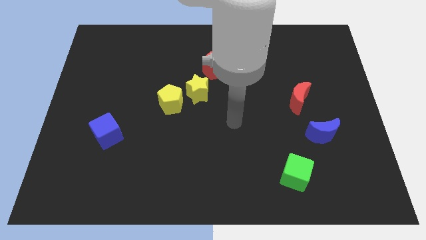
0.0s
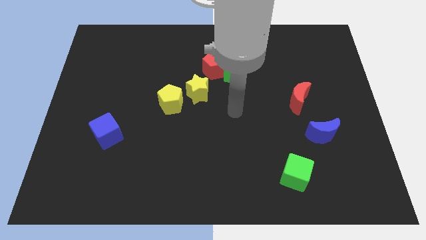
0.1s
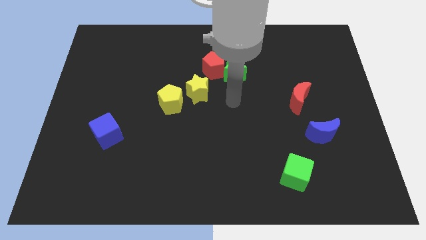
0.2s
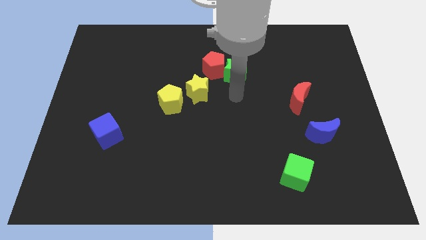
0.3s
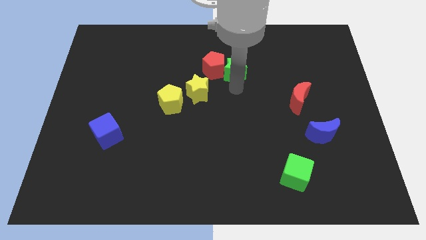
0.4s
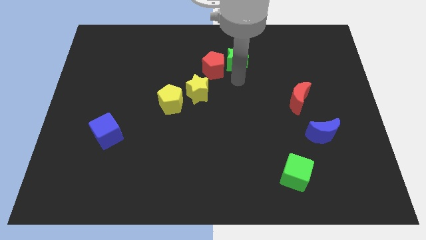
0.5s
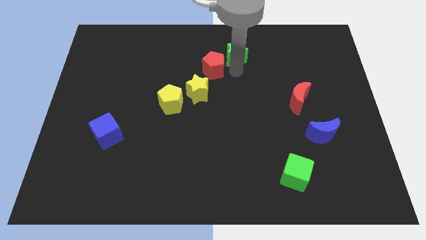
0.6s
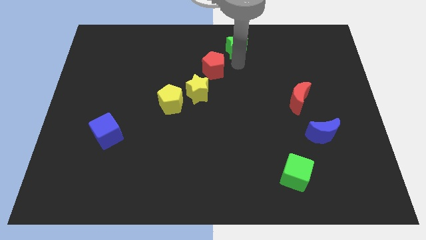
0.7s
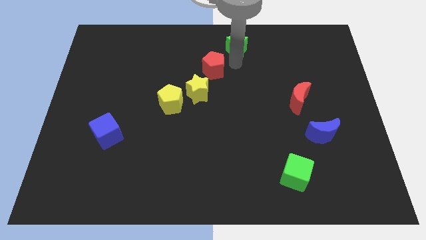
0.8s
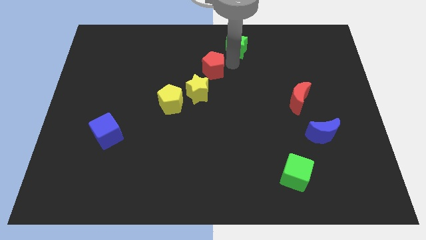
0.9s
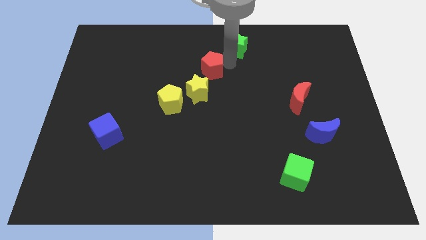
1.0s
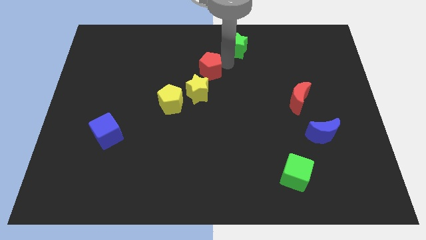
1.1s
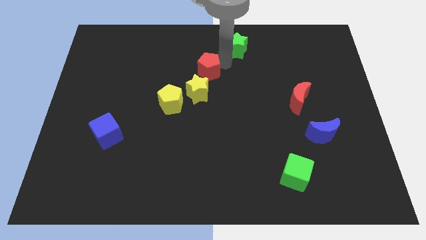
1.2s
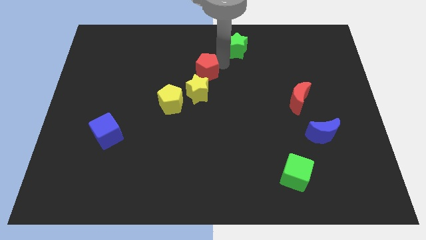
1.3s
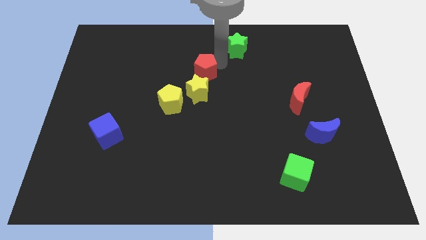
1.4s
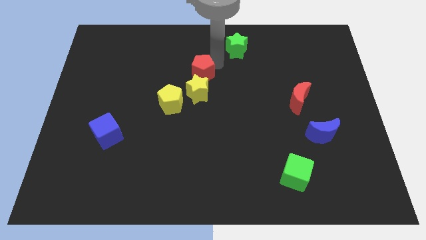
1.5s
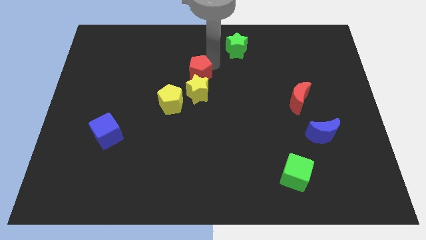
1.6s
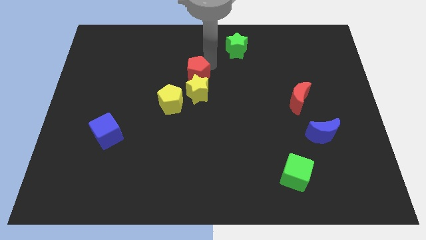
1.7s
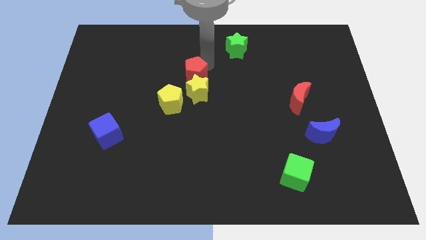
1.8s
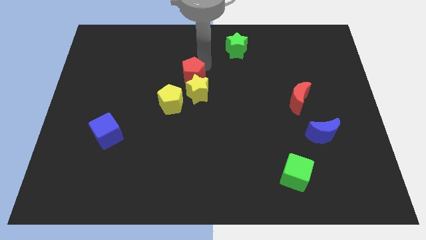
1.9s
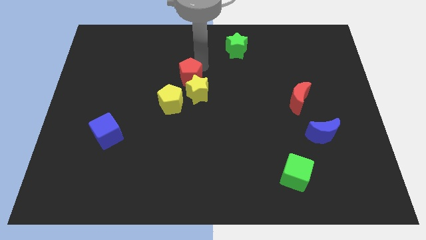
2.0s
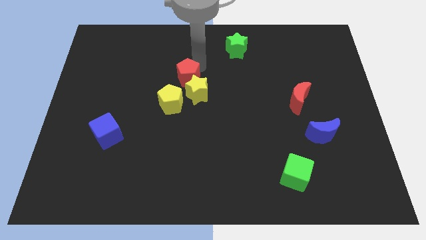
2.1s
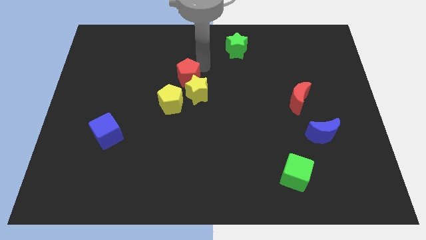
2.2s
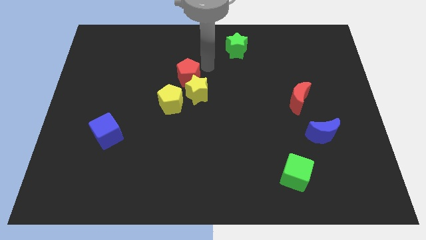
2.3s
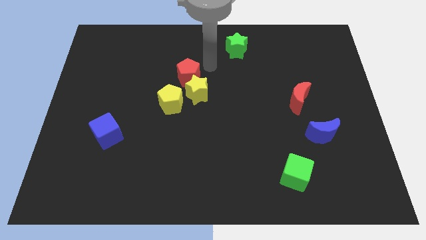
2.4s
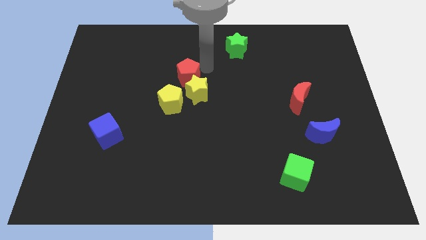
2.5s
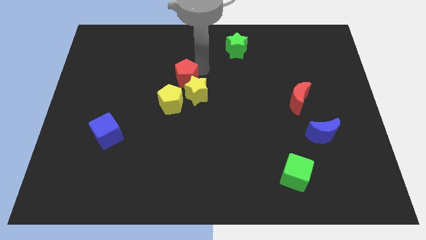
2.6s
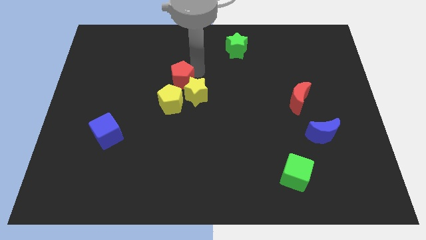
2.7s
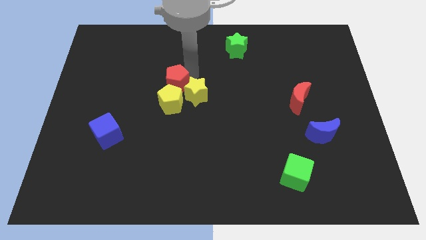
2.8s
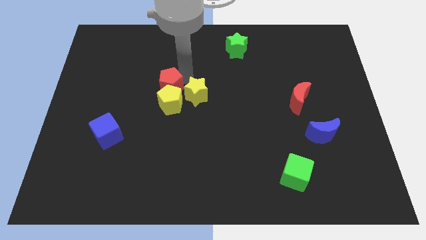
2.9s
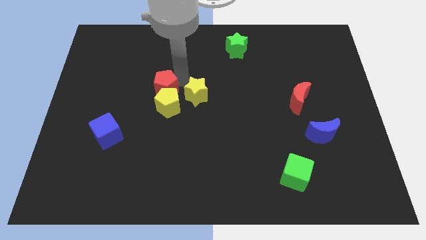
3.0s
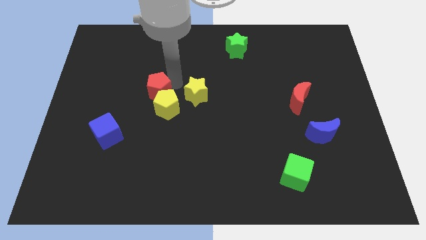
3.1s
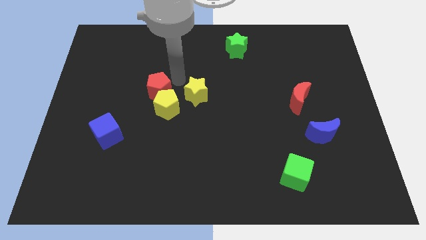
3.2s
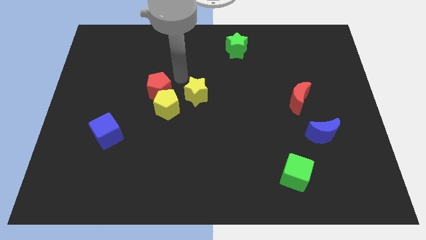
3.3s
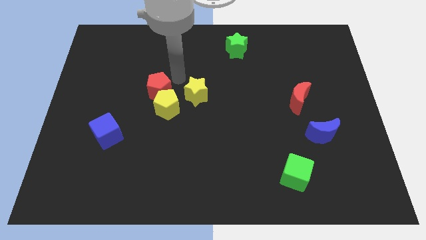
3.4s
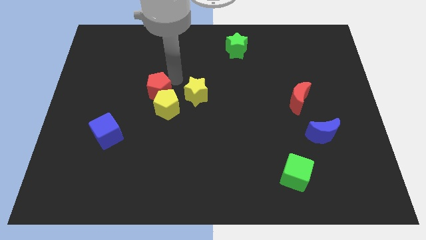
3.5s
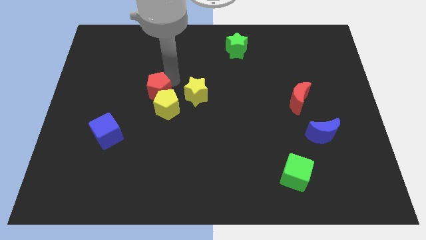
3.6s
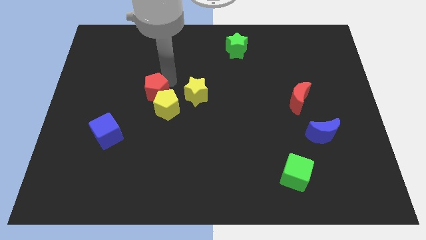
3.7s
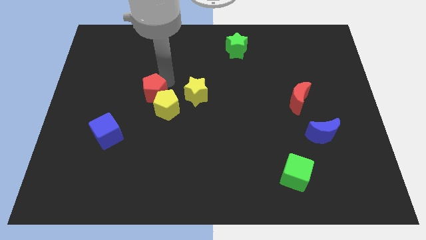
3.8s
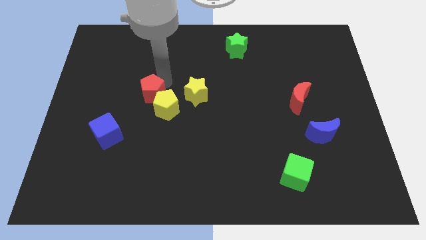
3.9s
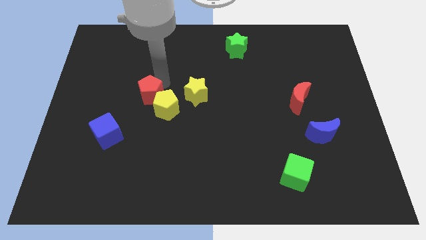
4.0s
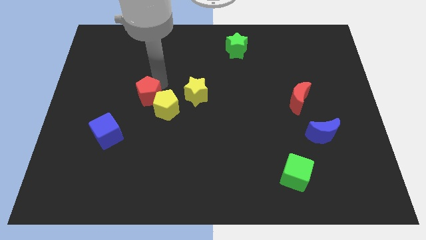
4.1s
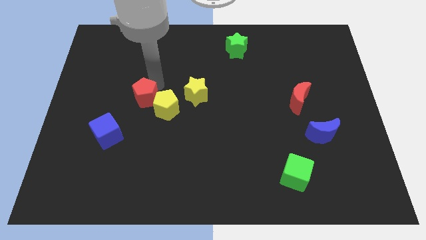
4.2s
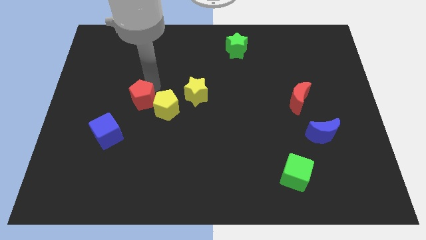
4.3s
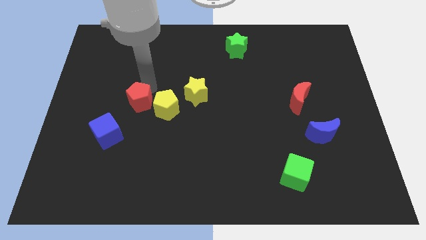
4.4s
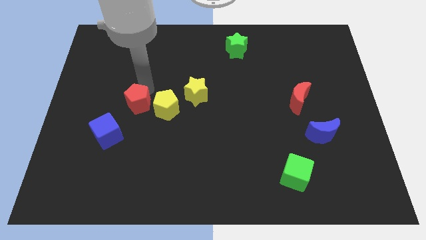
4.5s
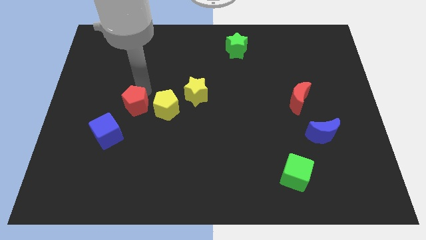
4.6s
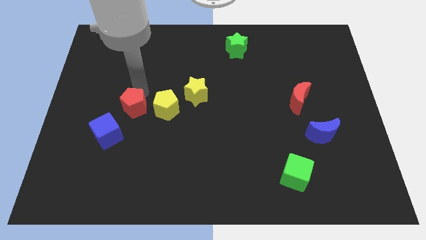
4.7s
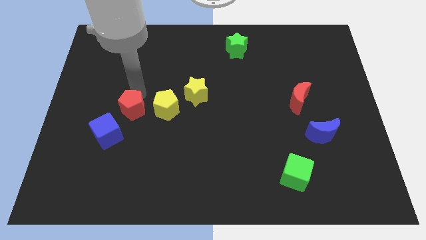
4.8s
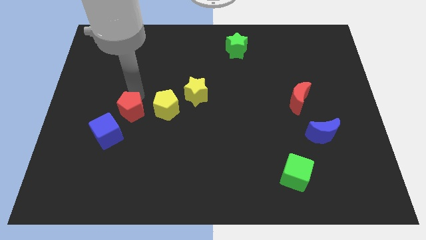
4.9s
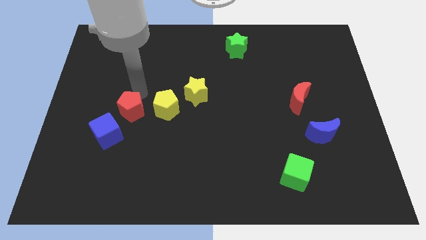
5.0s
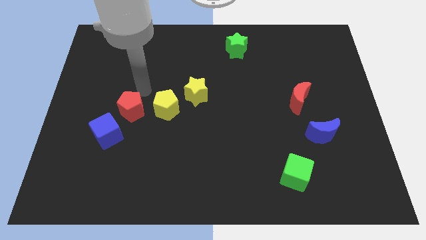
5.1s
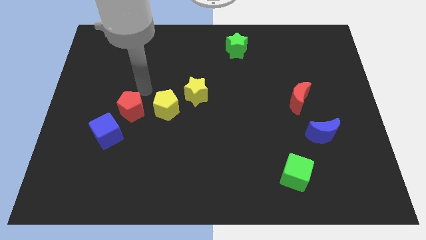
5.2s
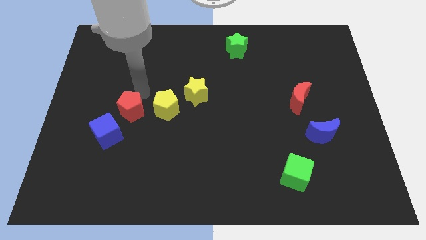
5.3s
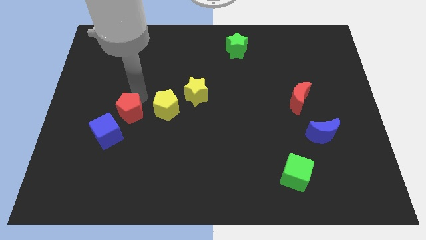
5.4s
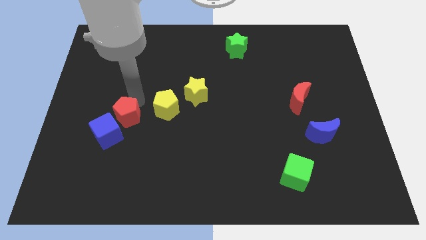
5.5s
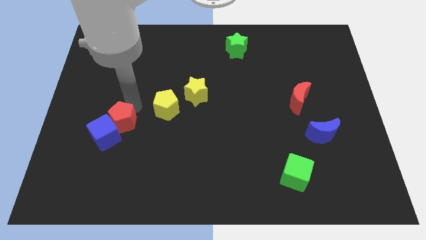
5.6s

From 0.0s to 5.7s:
push the red pentagon close to the blue cube

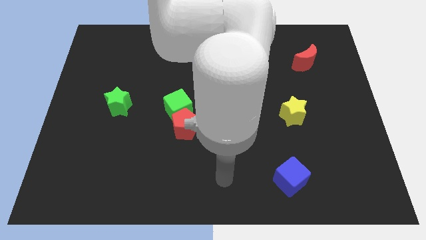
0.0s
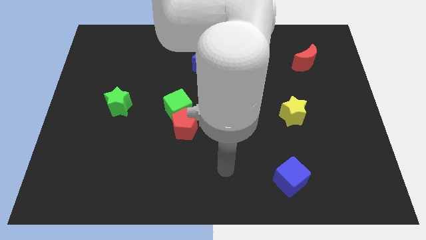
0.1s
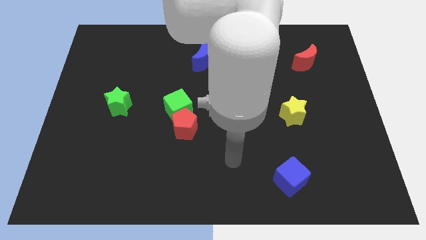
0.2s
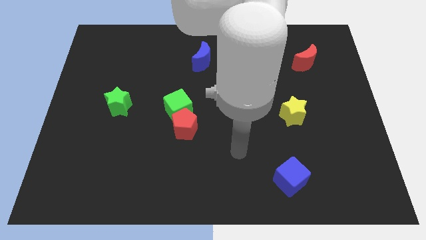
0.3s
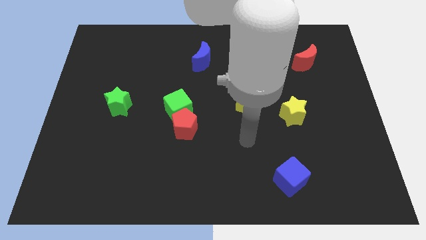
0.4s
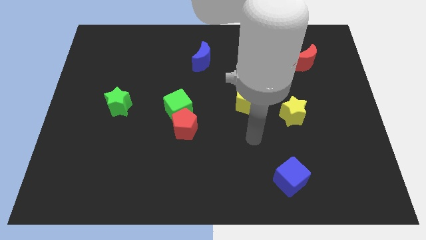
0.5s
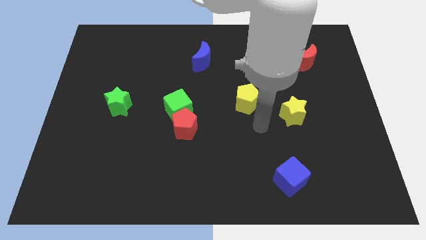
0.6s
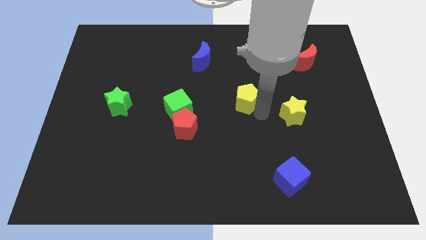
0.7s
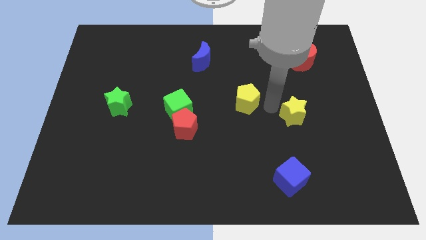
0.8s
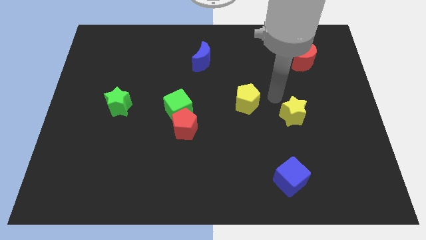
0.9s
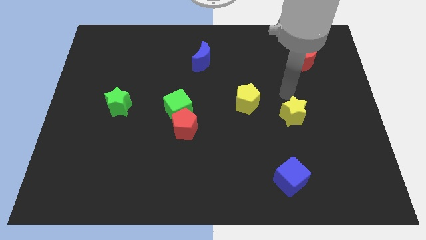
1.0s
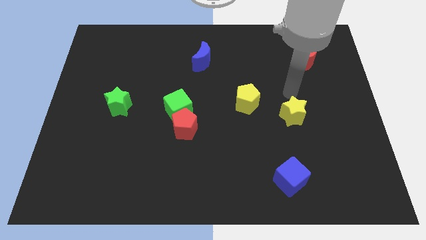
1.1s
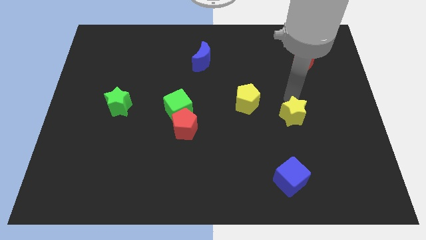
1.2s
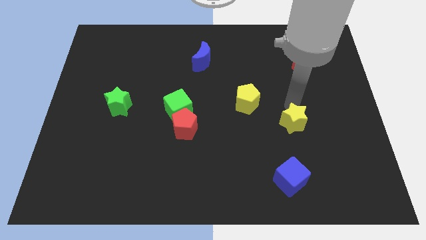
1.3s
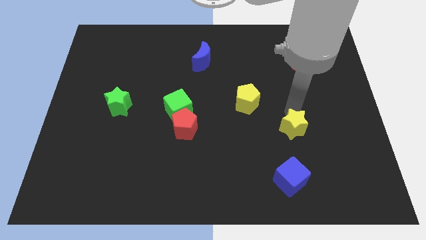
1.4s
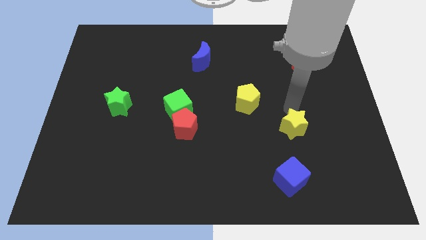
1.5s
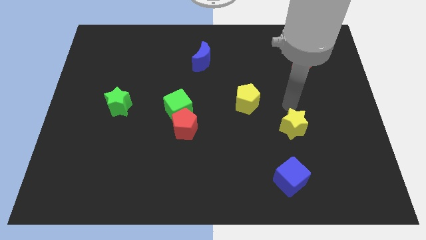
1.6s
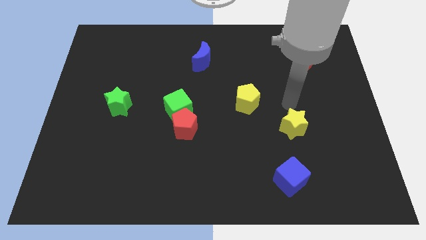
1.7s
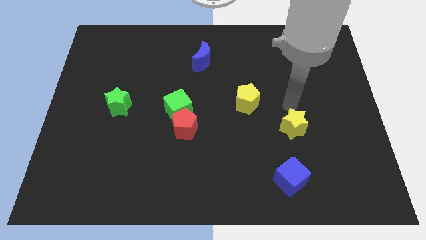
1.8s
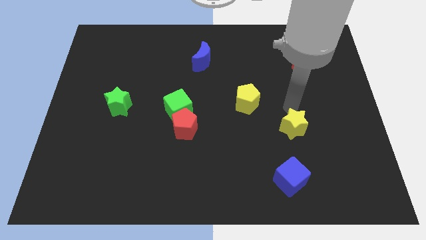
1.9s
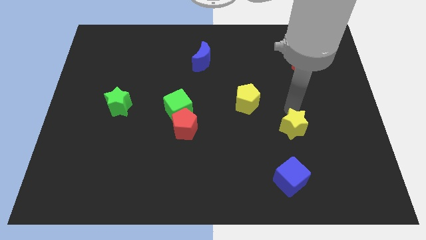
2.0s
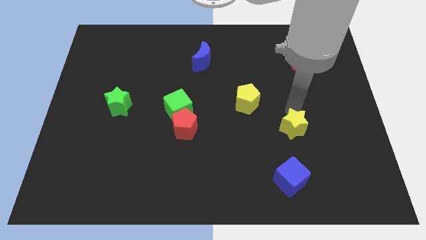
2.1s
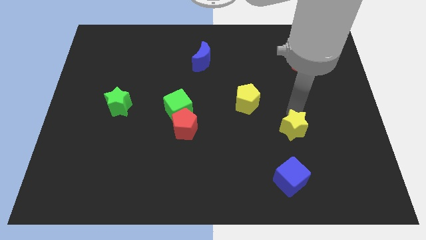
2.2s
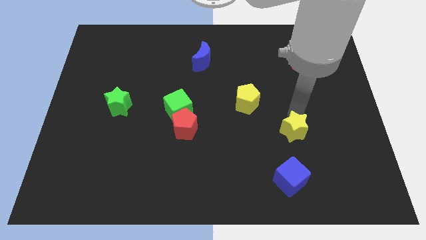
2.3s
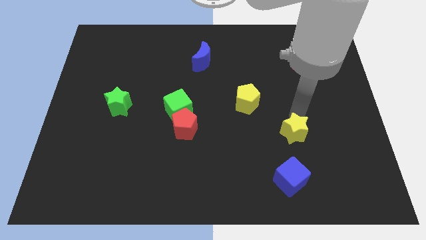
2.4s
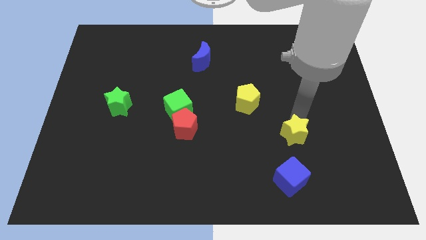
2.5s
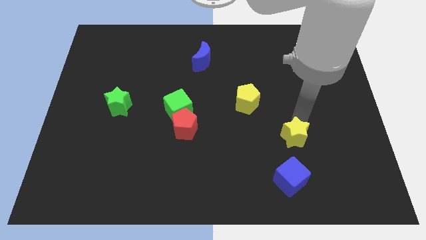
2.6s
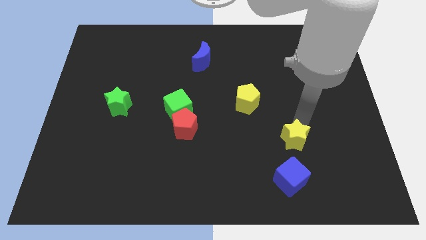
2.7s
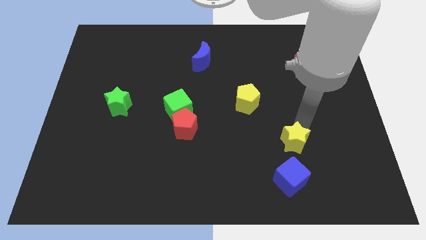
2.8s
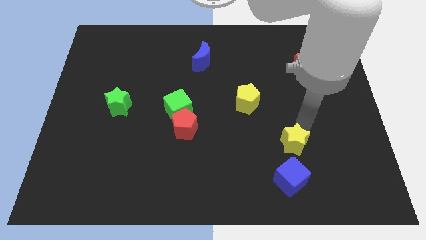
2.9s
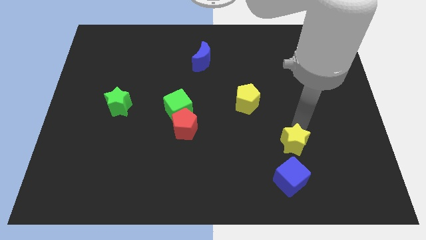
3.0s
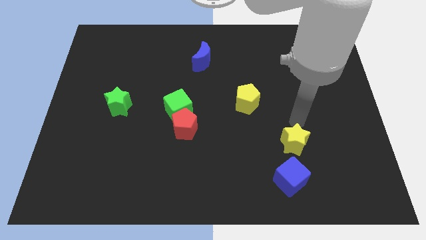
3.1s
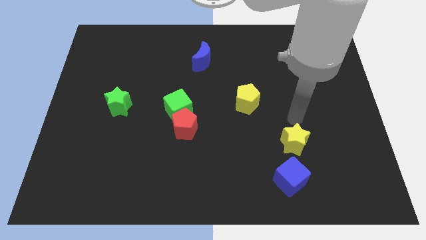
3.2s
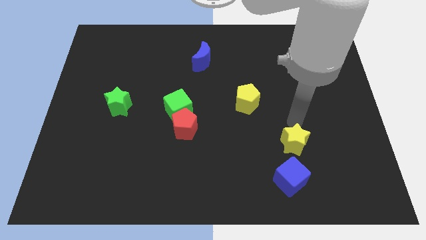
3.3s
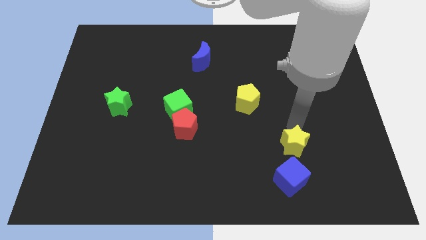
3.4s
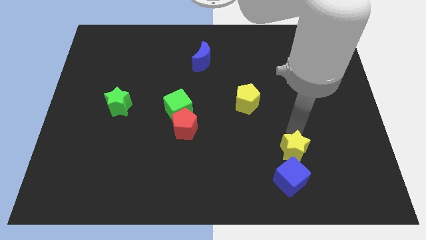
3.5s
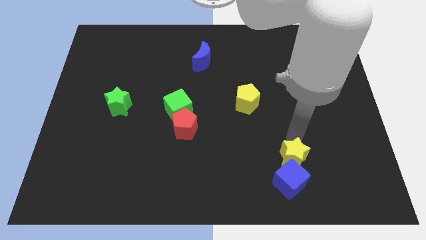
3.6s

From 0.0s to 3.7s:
move the yellow star to the blue cube
